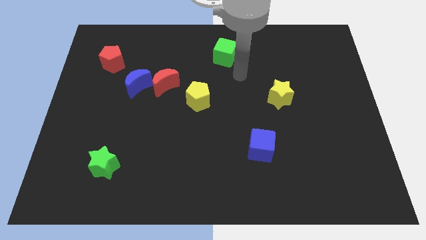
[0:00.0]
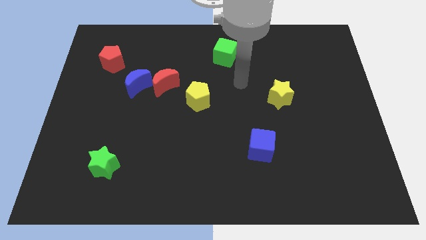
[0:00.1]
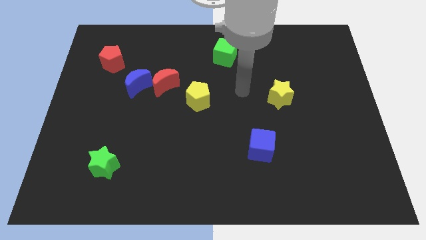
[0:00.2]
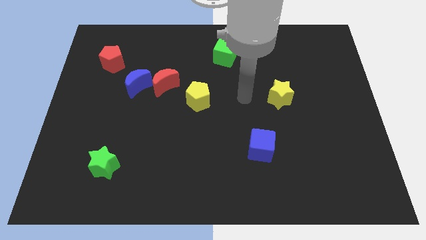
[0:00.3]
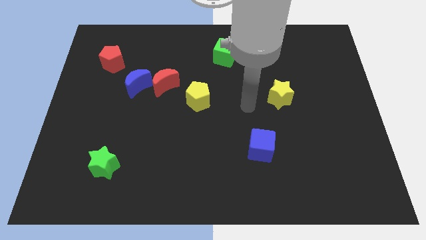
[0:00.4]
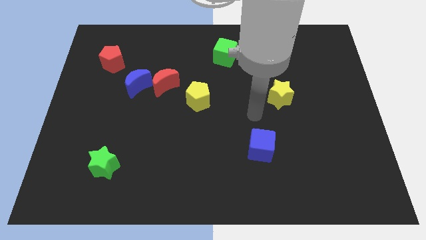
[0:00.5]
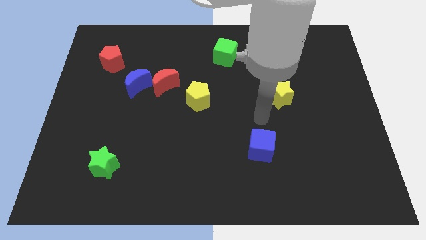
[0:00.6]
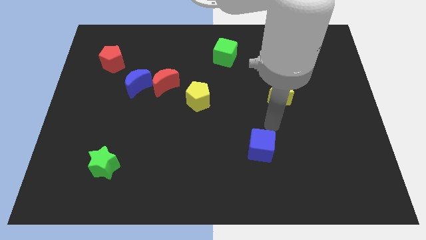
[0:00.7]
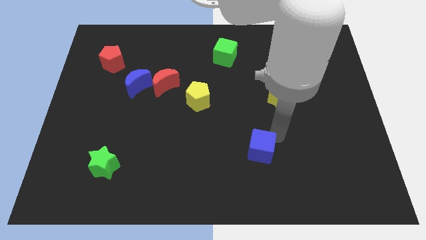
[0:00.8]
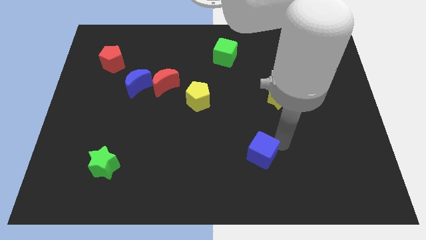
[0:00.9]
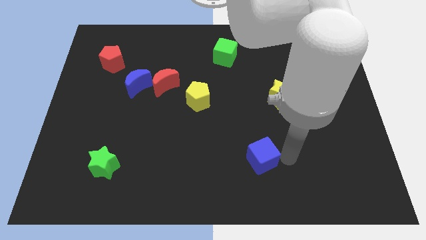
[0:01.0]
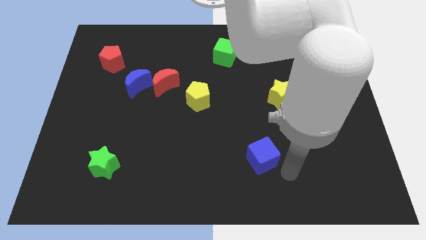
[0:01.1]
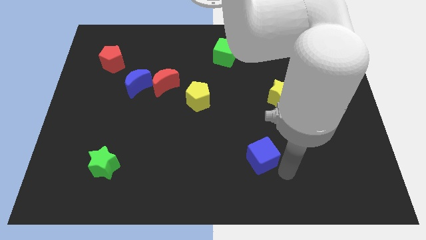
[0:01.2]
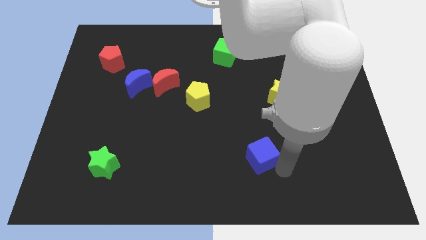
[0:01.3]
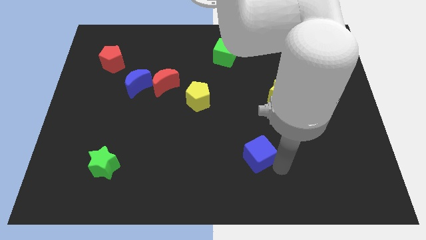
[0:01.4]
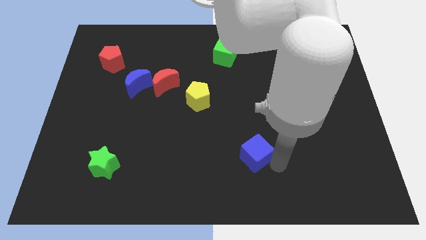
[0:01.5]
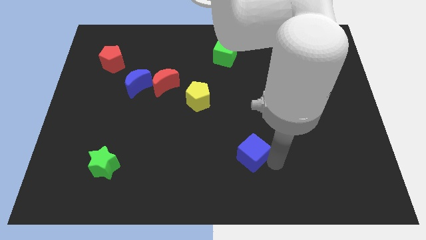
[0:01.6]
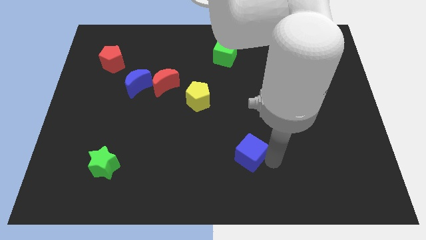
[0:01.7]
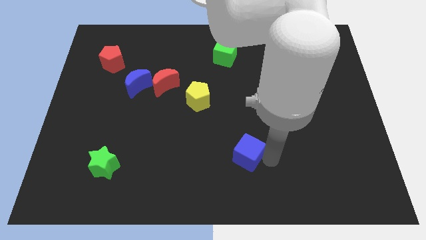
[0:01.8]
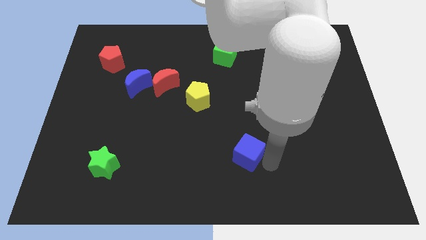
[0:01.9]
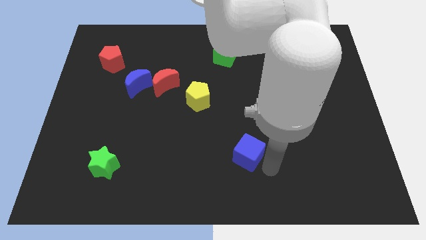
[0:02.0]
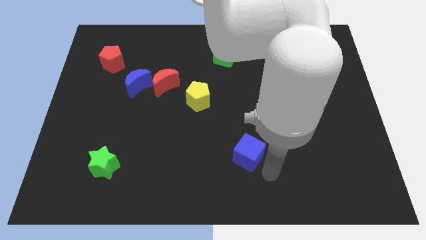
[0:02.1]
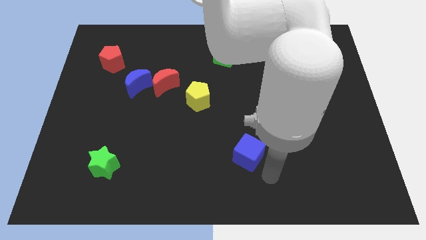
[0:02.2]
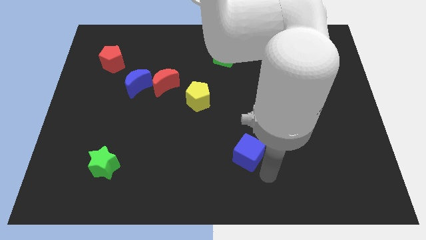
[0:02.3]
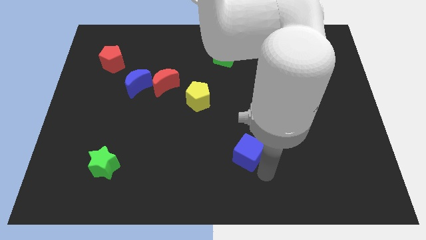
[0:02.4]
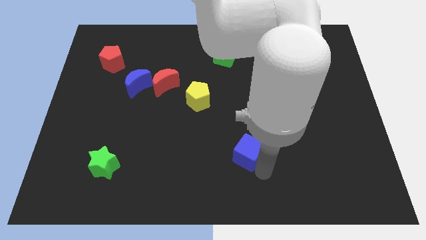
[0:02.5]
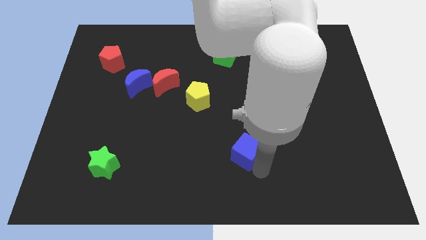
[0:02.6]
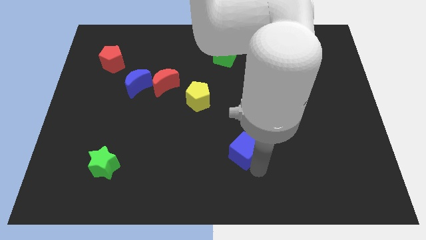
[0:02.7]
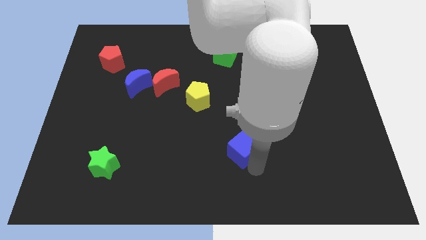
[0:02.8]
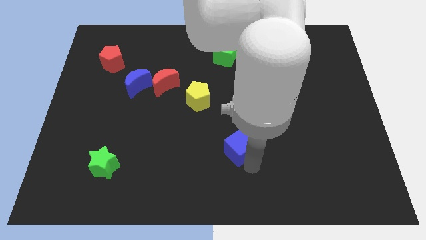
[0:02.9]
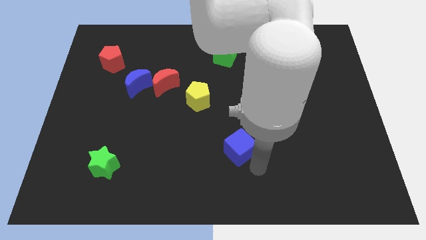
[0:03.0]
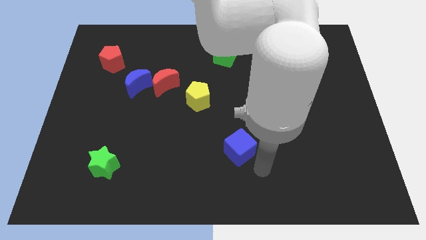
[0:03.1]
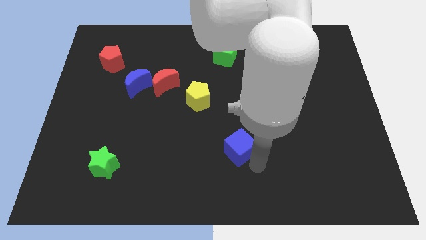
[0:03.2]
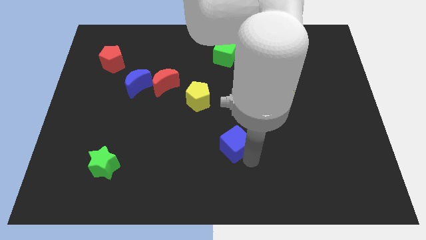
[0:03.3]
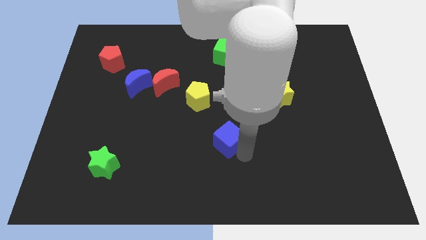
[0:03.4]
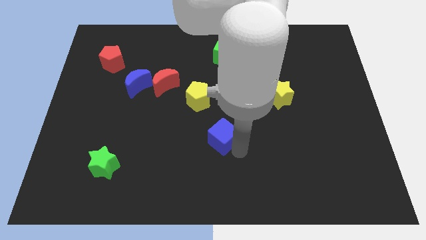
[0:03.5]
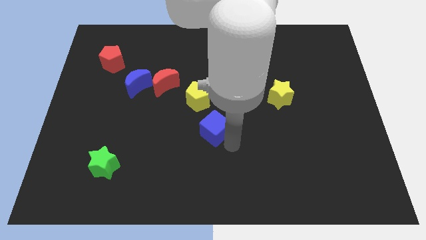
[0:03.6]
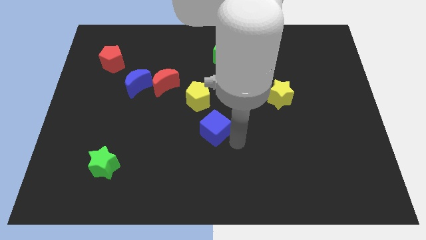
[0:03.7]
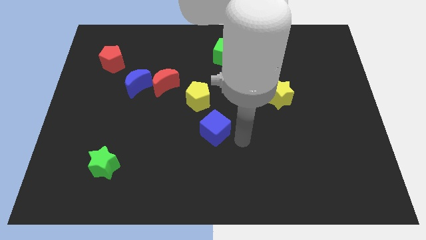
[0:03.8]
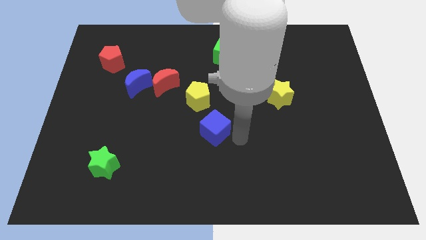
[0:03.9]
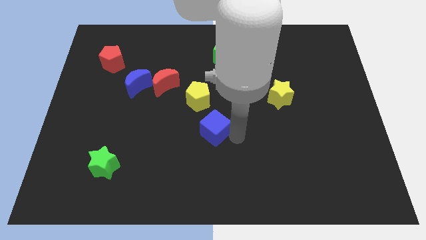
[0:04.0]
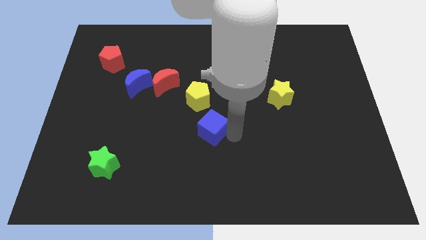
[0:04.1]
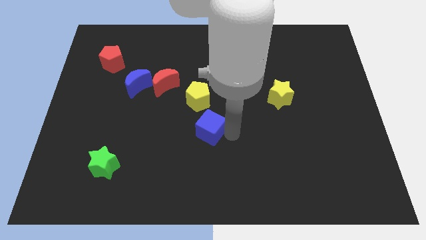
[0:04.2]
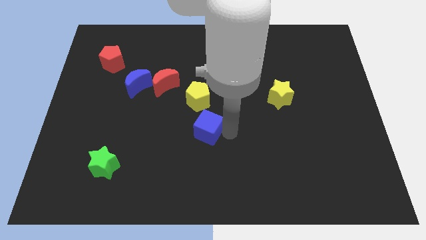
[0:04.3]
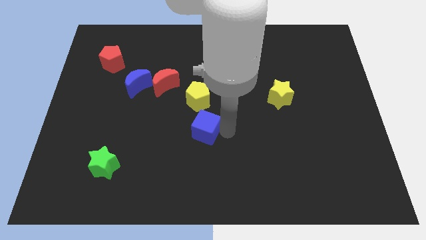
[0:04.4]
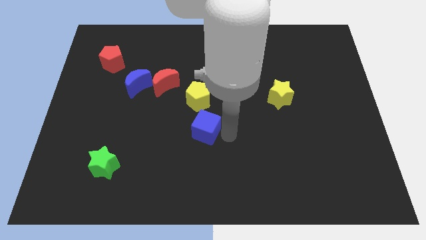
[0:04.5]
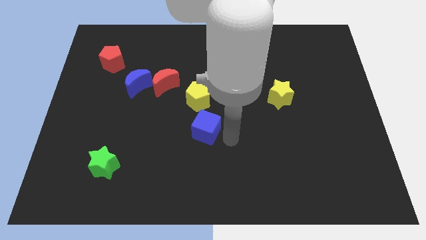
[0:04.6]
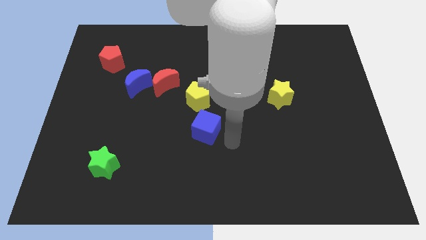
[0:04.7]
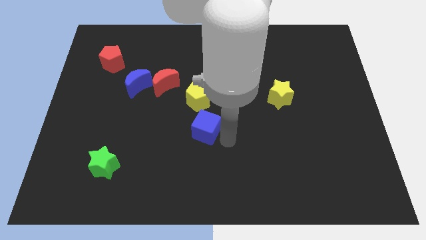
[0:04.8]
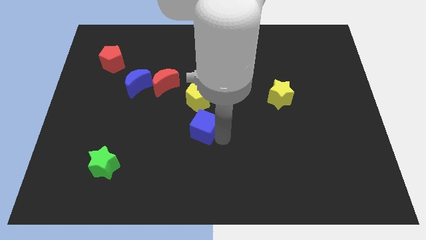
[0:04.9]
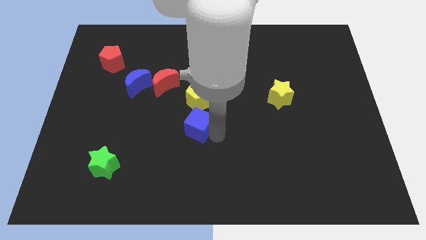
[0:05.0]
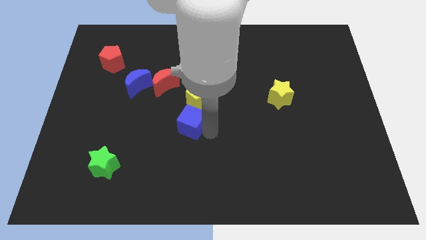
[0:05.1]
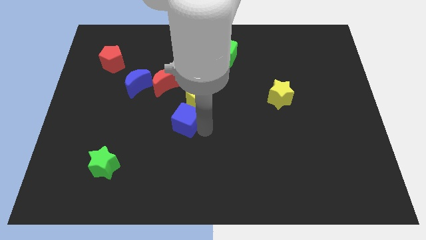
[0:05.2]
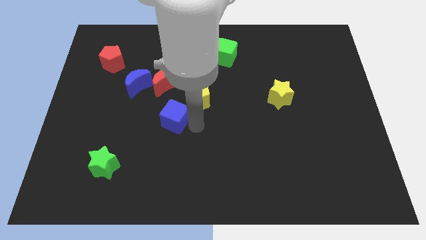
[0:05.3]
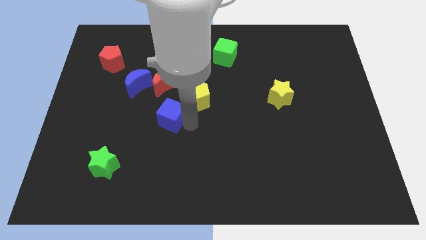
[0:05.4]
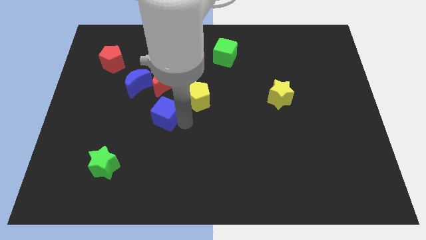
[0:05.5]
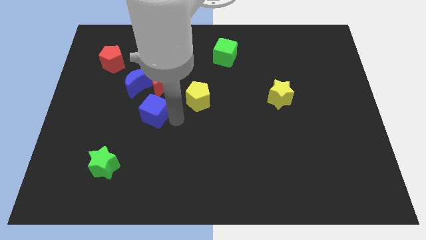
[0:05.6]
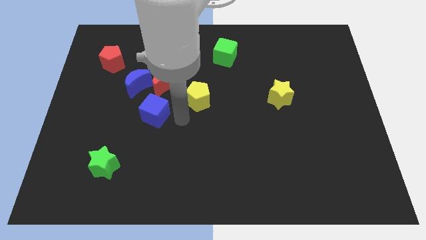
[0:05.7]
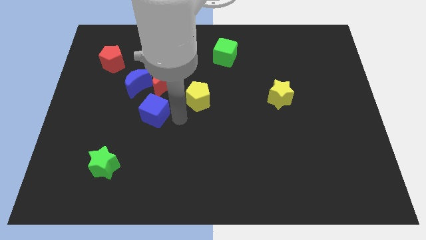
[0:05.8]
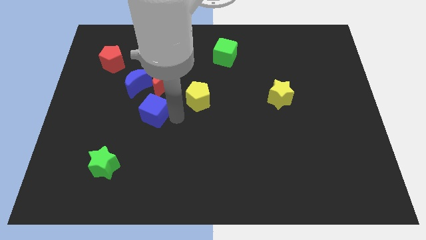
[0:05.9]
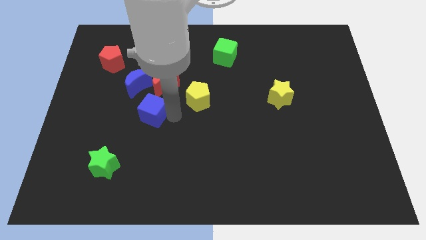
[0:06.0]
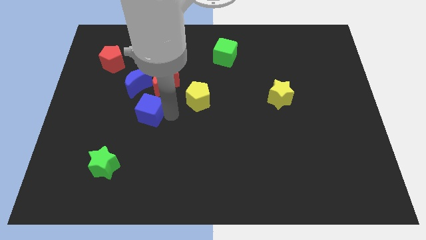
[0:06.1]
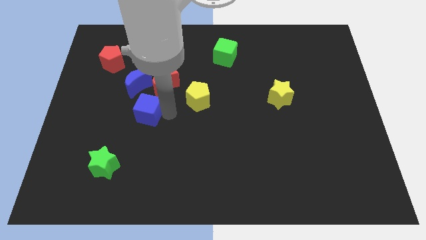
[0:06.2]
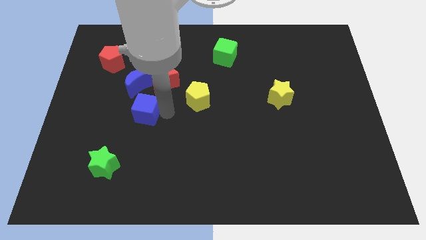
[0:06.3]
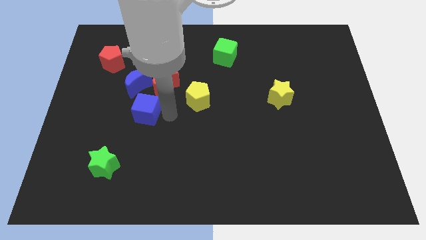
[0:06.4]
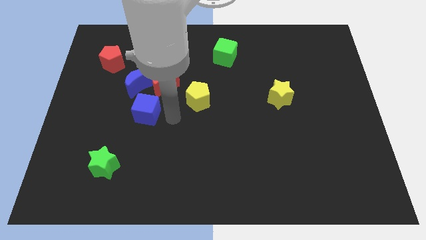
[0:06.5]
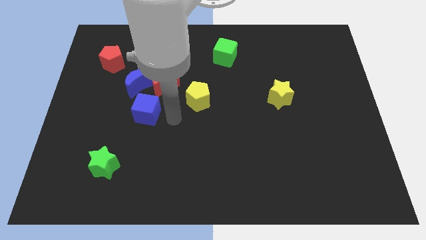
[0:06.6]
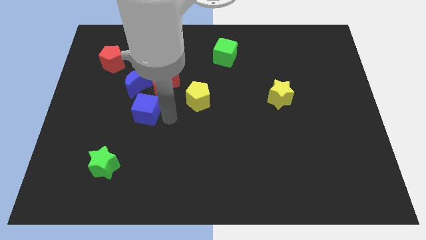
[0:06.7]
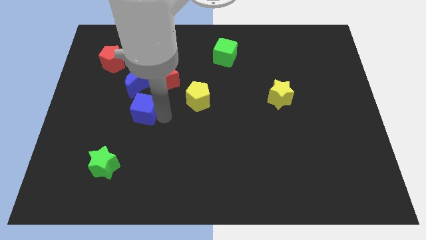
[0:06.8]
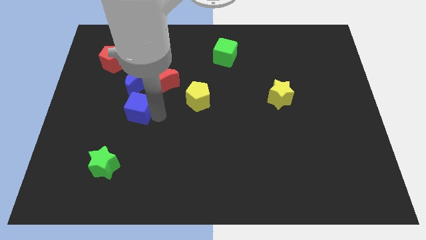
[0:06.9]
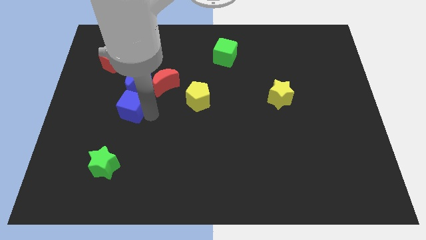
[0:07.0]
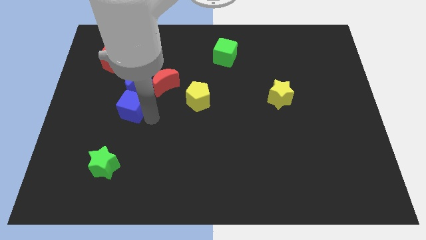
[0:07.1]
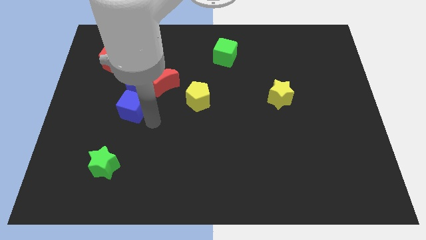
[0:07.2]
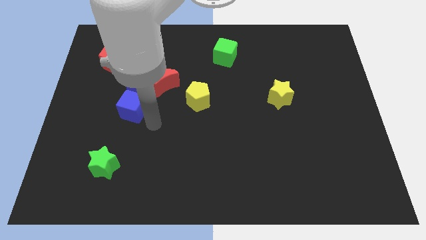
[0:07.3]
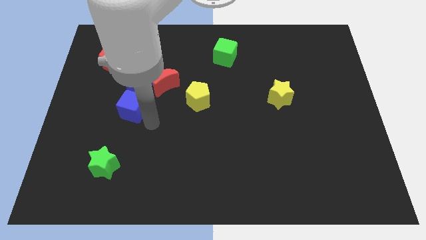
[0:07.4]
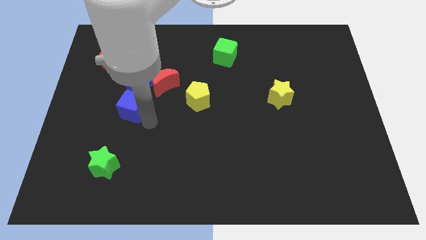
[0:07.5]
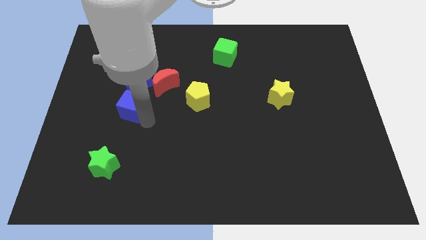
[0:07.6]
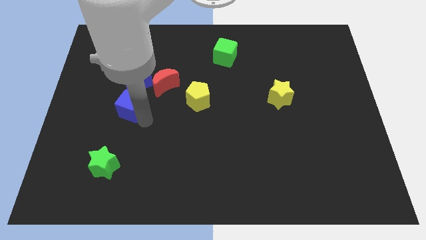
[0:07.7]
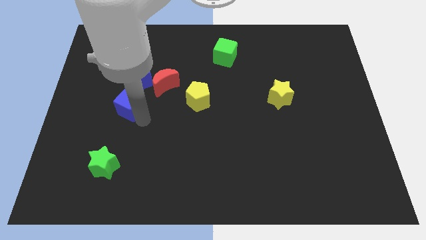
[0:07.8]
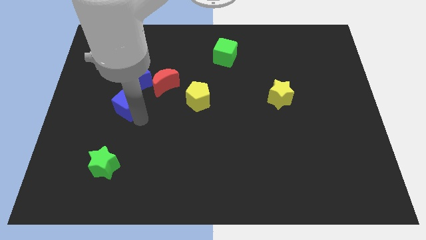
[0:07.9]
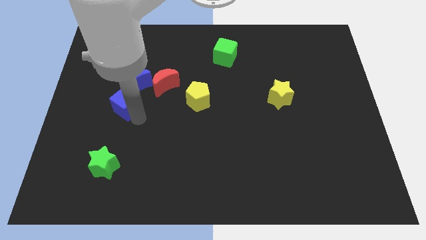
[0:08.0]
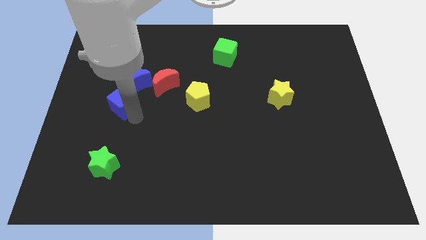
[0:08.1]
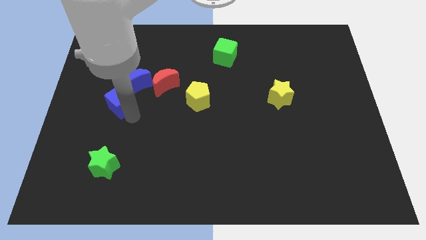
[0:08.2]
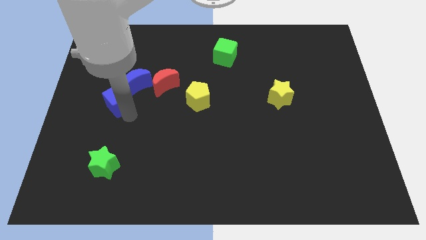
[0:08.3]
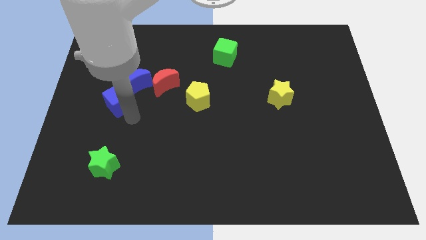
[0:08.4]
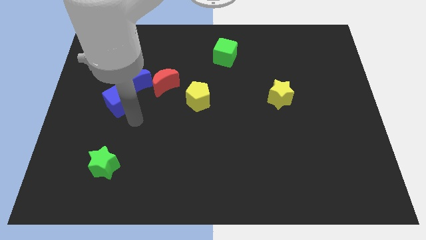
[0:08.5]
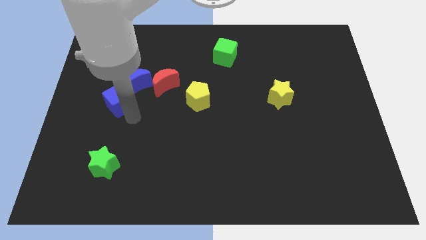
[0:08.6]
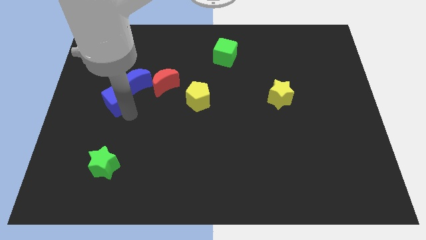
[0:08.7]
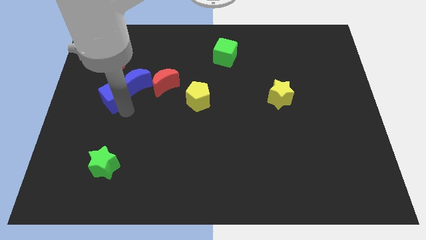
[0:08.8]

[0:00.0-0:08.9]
move the blue cube just left of the blue moon
